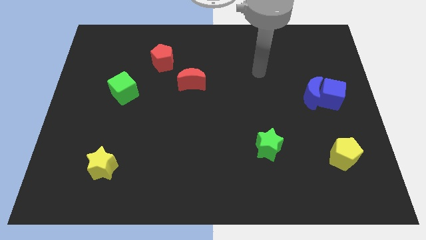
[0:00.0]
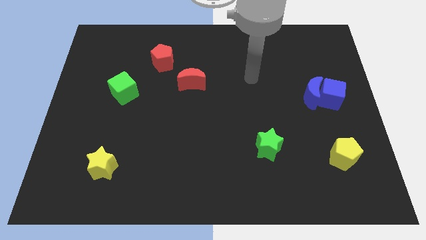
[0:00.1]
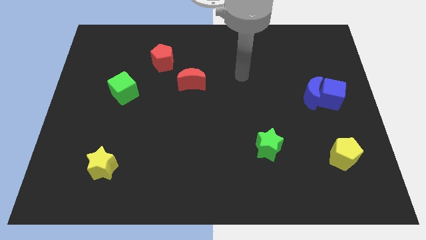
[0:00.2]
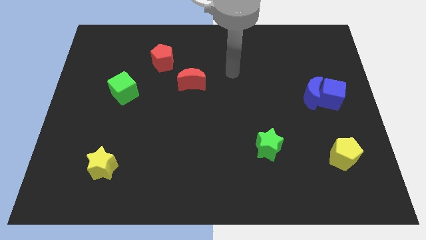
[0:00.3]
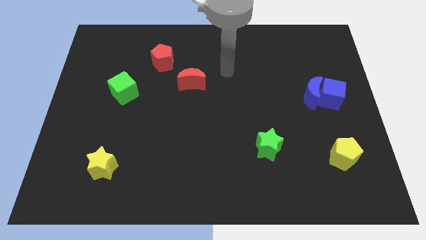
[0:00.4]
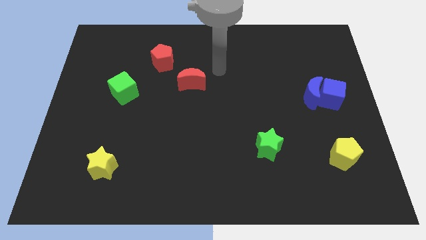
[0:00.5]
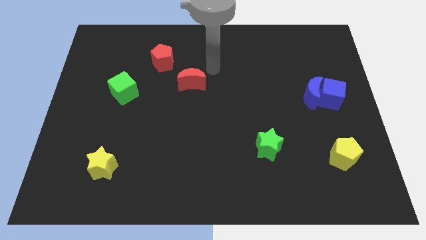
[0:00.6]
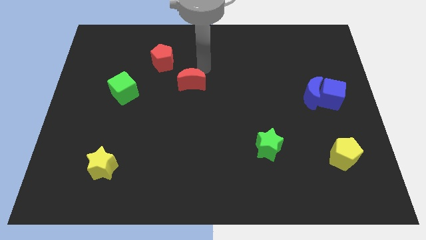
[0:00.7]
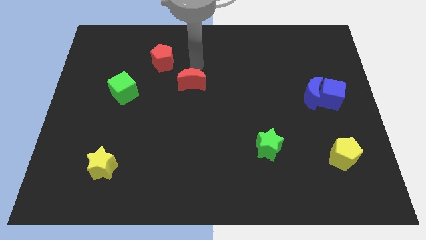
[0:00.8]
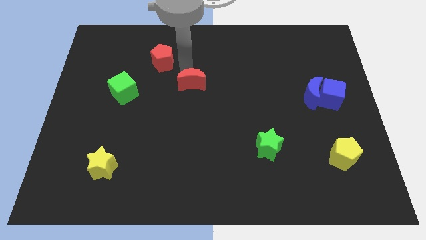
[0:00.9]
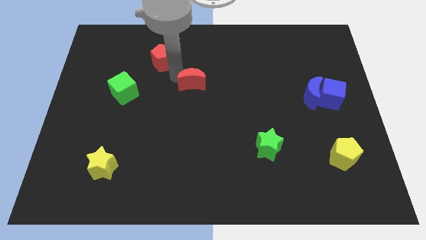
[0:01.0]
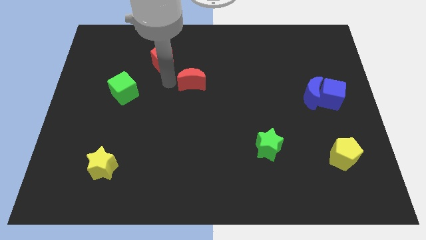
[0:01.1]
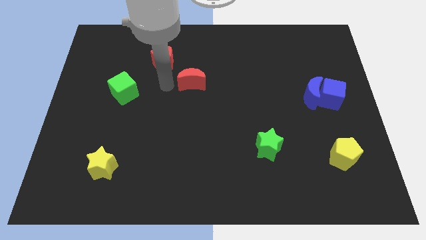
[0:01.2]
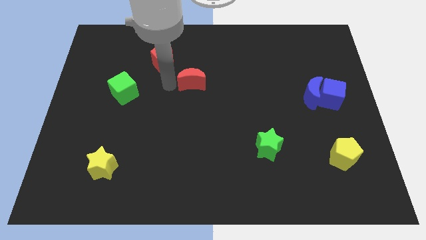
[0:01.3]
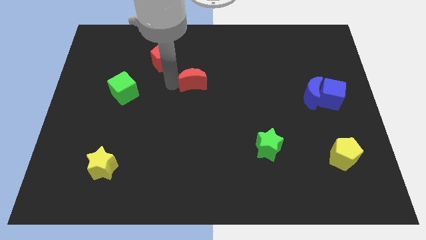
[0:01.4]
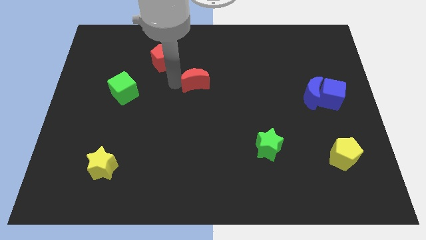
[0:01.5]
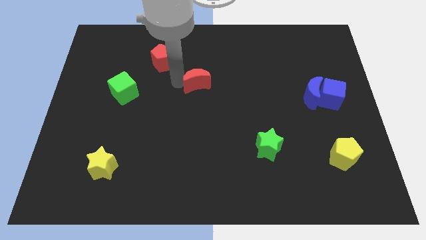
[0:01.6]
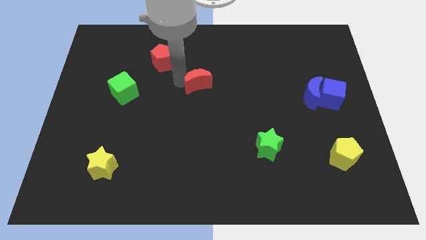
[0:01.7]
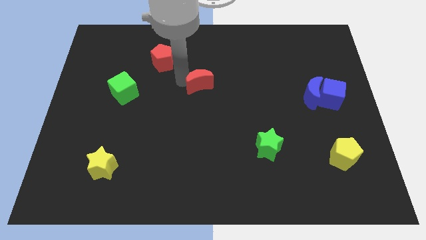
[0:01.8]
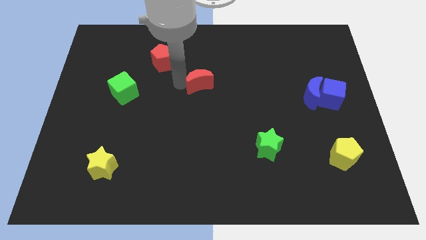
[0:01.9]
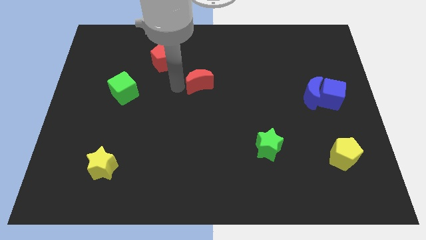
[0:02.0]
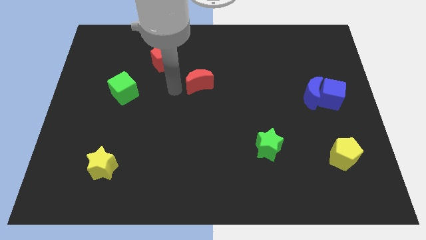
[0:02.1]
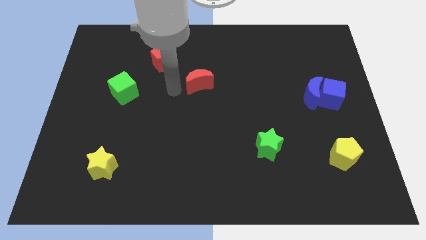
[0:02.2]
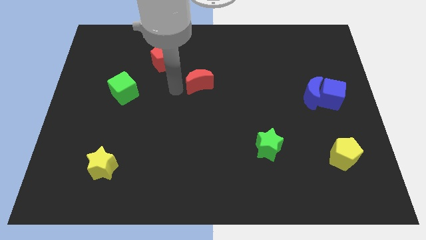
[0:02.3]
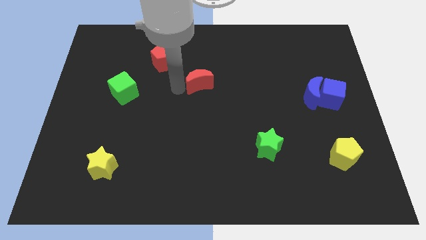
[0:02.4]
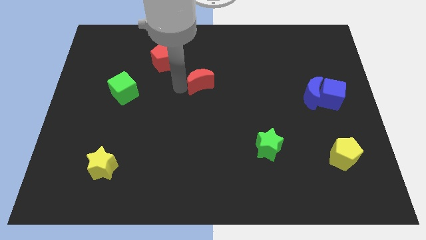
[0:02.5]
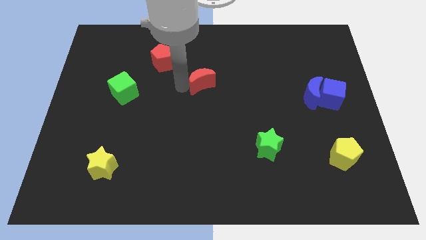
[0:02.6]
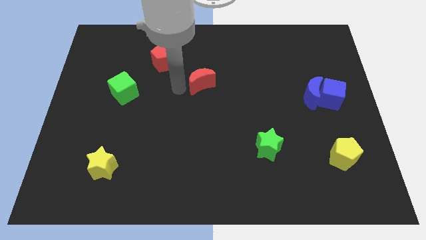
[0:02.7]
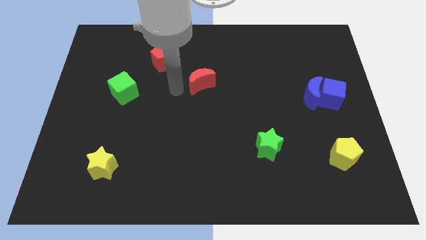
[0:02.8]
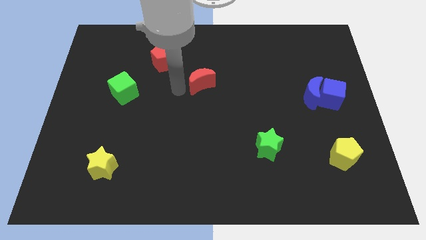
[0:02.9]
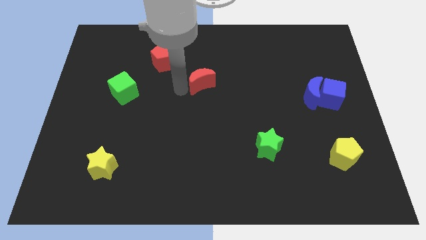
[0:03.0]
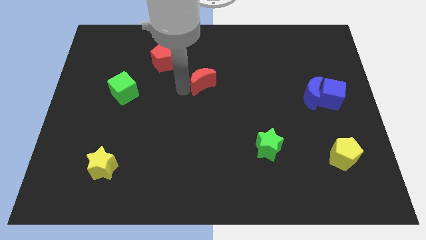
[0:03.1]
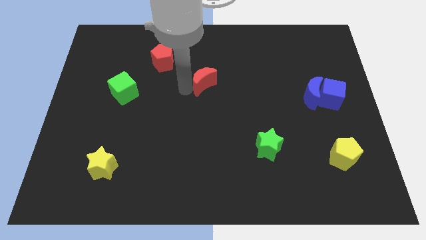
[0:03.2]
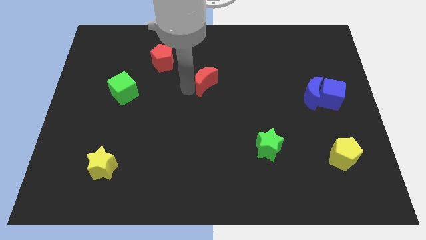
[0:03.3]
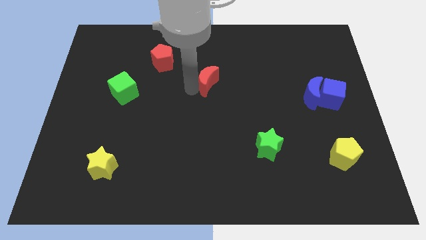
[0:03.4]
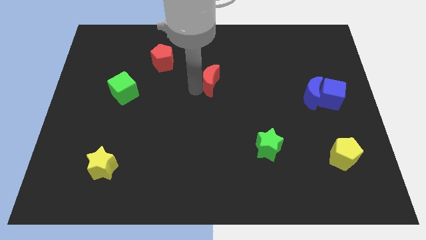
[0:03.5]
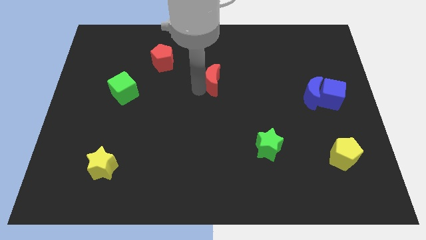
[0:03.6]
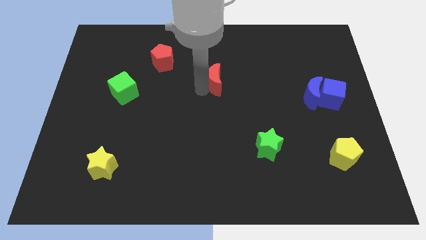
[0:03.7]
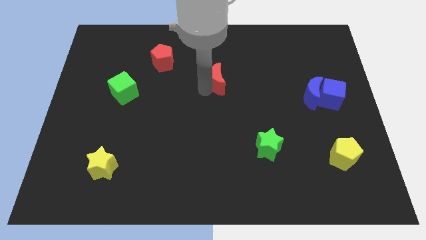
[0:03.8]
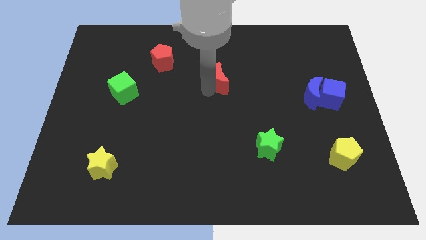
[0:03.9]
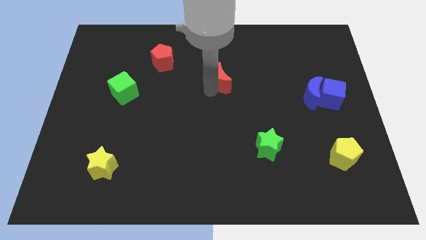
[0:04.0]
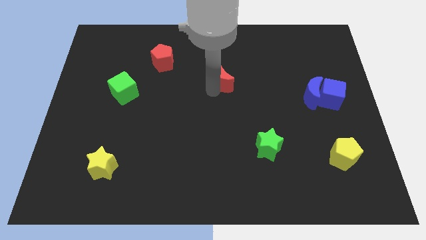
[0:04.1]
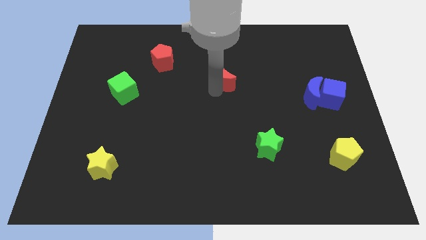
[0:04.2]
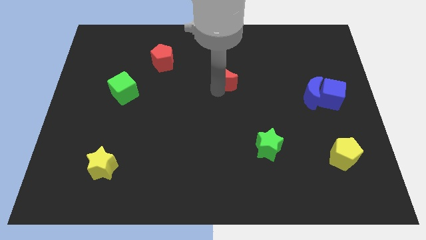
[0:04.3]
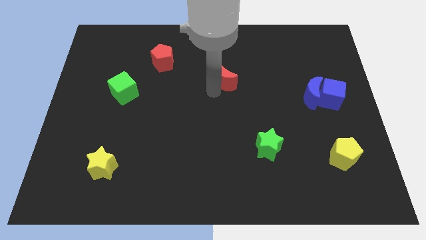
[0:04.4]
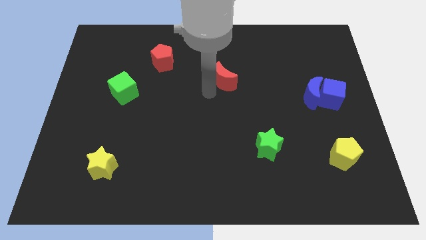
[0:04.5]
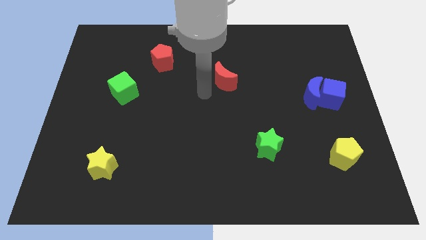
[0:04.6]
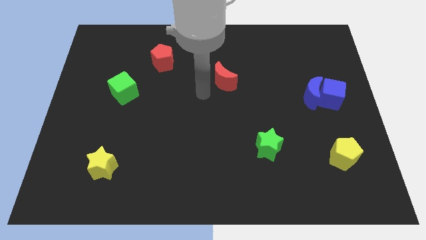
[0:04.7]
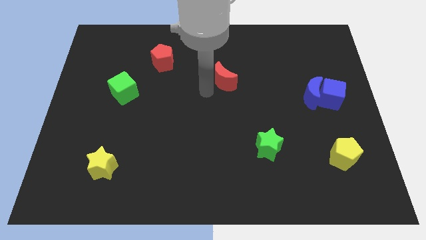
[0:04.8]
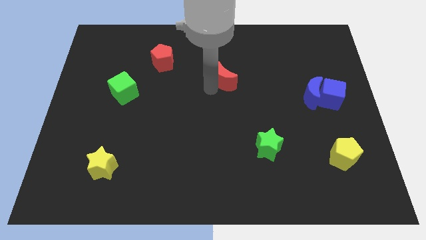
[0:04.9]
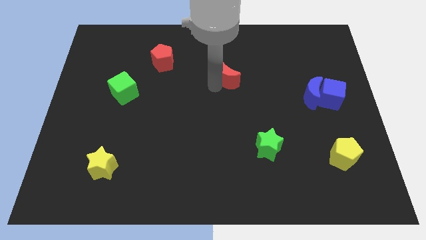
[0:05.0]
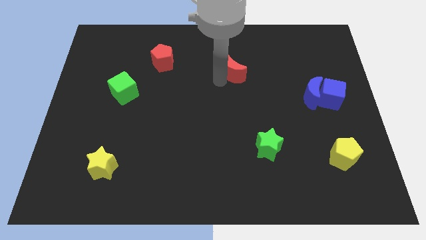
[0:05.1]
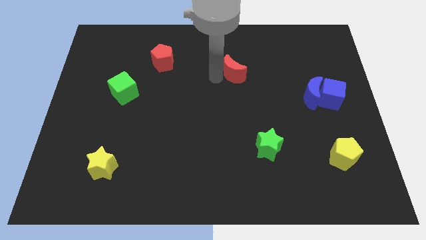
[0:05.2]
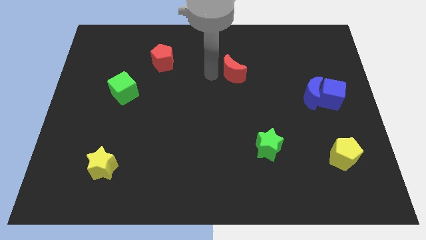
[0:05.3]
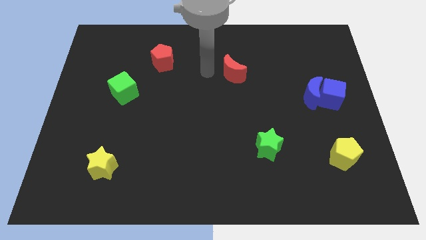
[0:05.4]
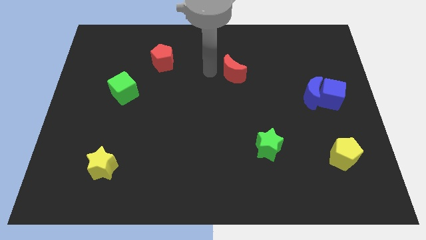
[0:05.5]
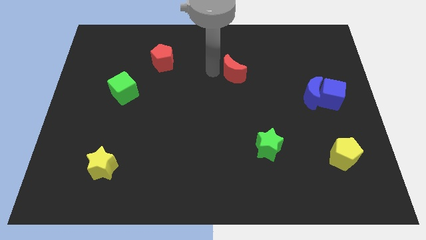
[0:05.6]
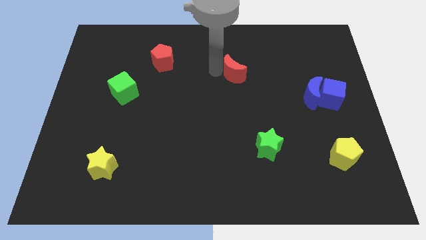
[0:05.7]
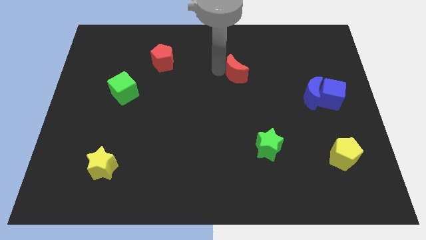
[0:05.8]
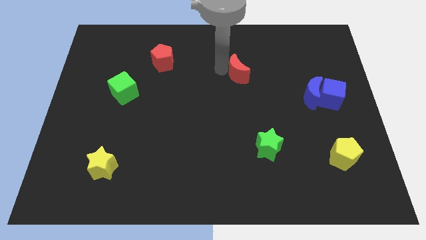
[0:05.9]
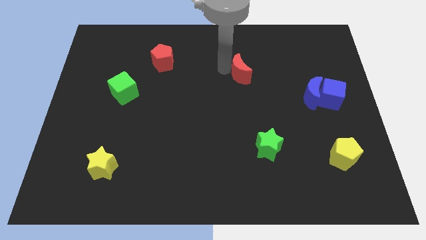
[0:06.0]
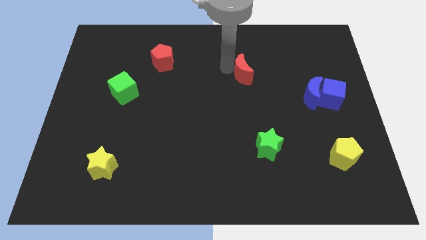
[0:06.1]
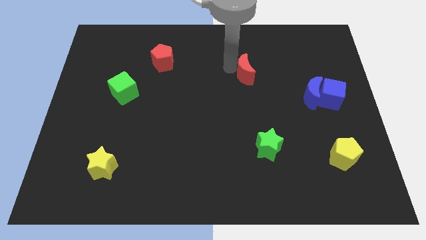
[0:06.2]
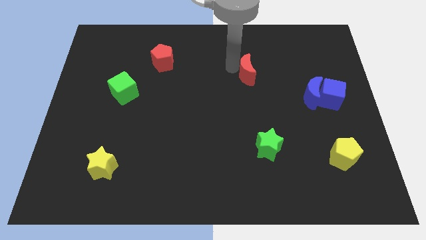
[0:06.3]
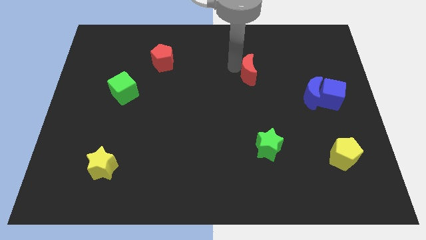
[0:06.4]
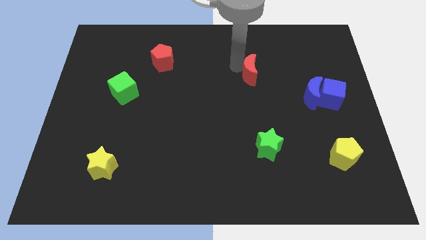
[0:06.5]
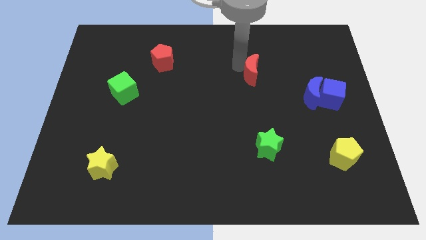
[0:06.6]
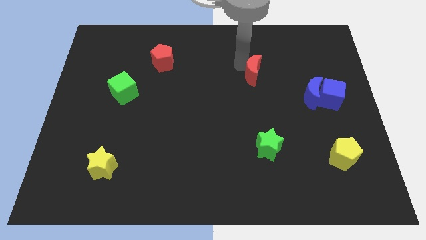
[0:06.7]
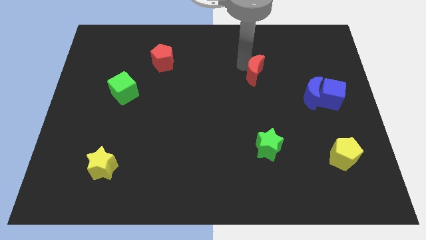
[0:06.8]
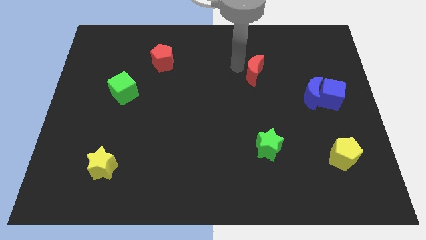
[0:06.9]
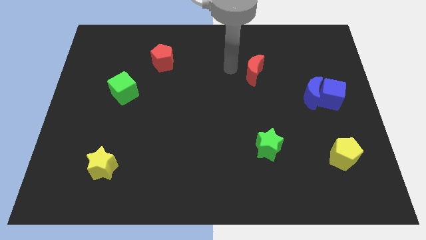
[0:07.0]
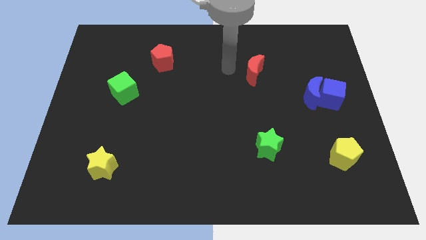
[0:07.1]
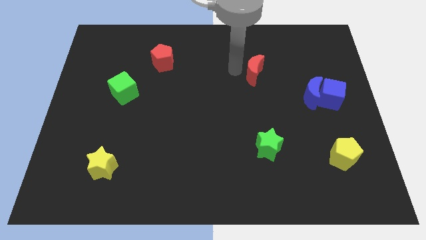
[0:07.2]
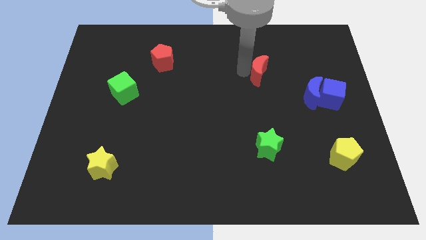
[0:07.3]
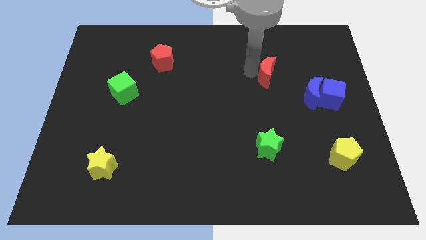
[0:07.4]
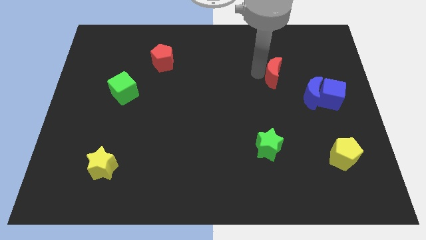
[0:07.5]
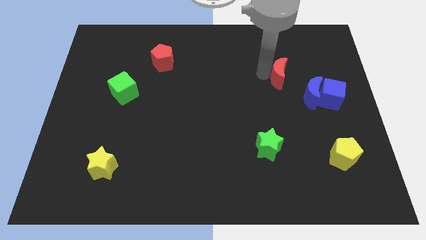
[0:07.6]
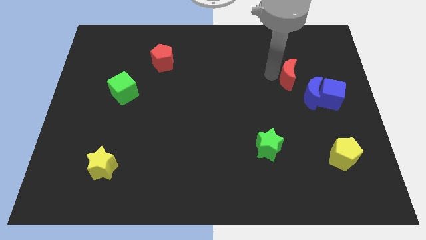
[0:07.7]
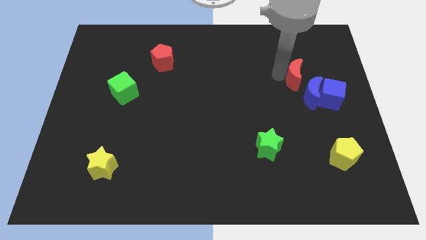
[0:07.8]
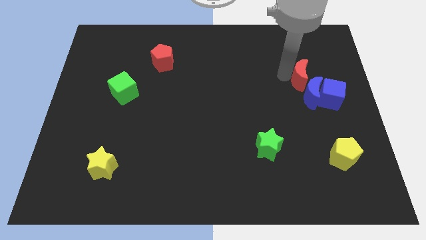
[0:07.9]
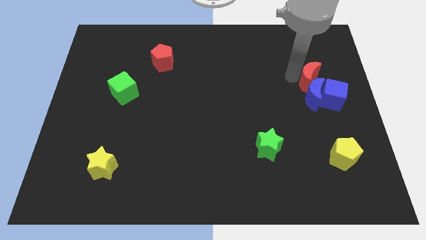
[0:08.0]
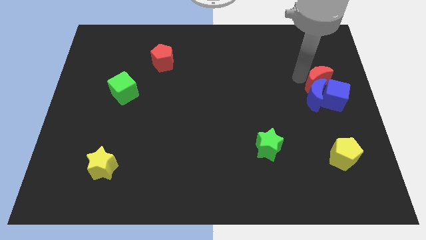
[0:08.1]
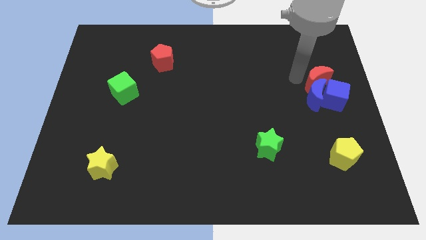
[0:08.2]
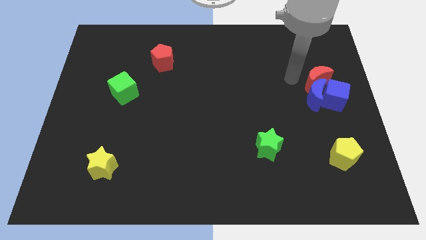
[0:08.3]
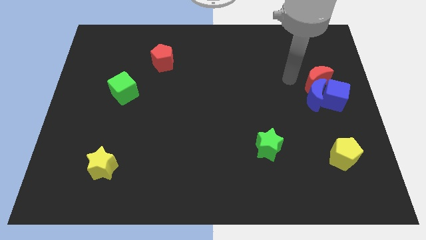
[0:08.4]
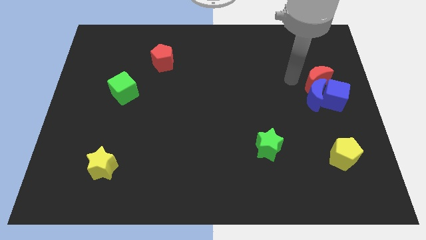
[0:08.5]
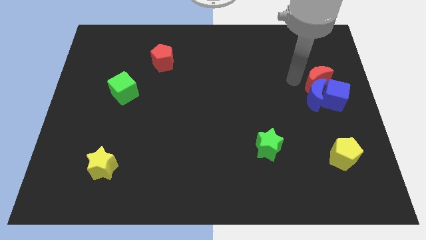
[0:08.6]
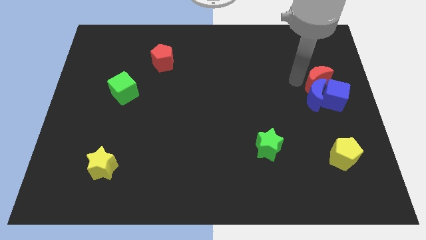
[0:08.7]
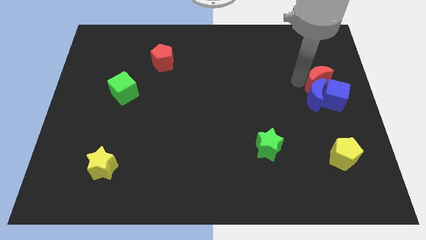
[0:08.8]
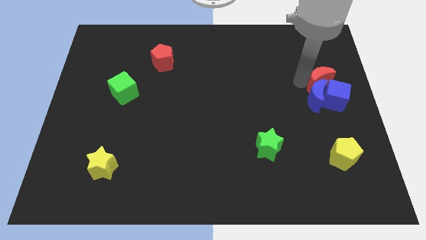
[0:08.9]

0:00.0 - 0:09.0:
move the red moon close to the blue cube
